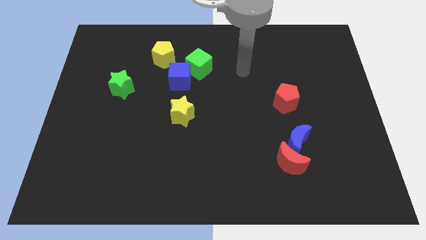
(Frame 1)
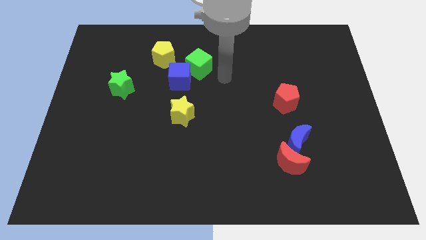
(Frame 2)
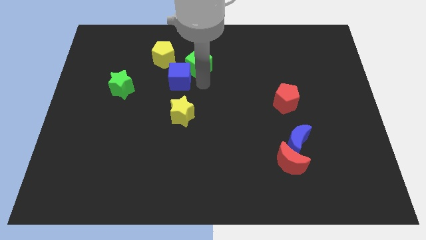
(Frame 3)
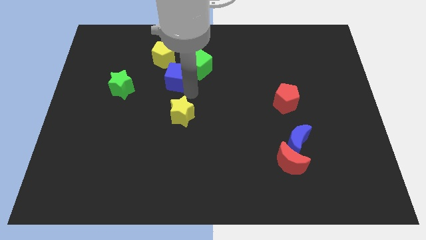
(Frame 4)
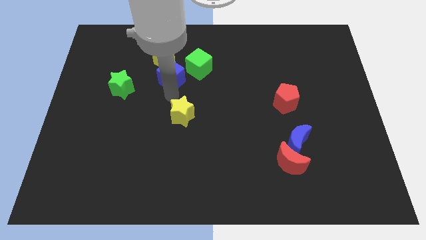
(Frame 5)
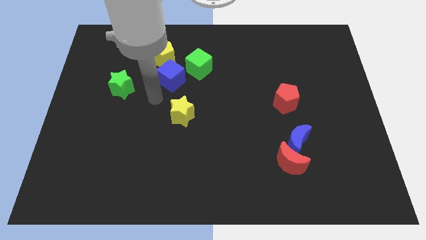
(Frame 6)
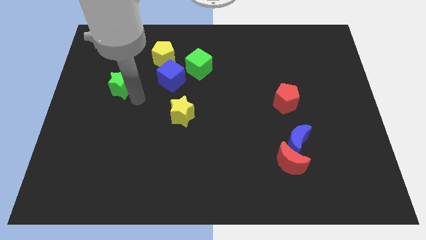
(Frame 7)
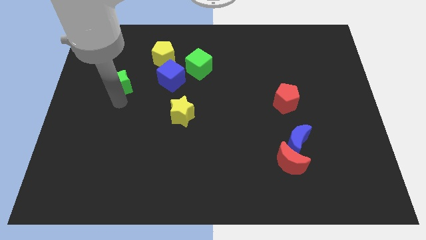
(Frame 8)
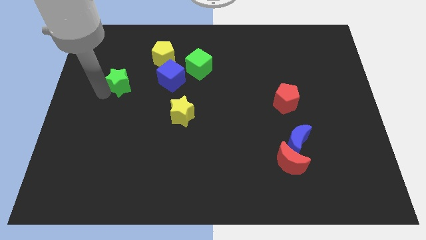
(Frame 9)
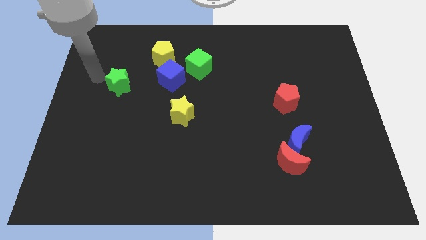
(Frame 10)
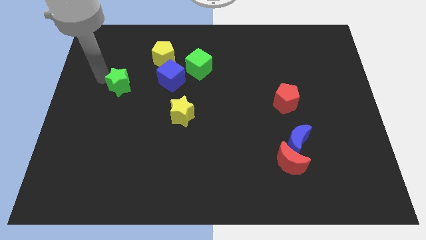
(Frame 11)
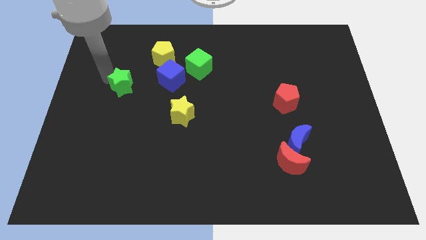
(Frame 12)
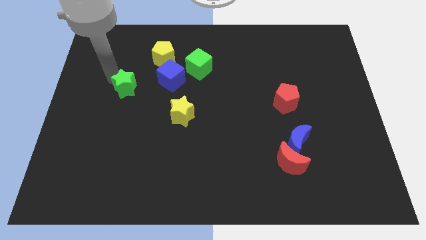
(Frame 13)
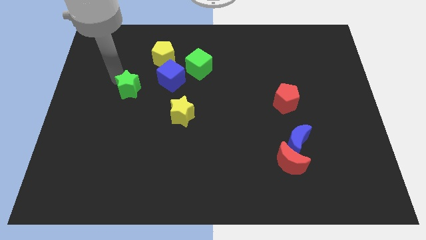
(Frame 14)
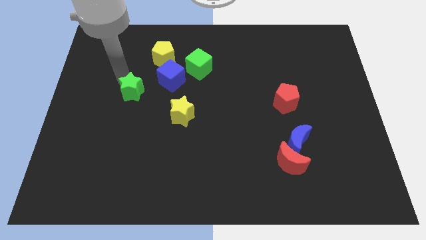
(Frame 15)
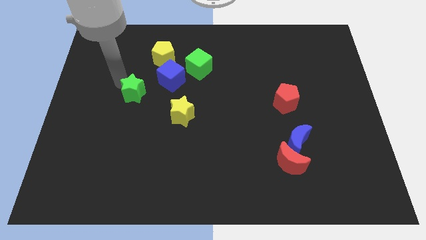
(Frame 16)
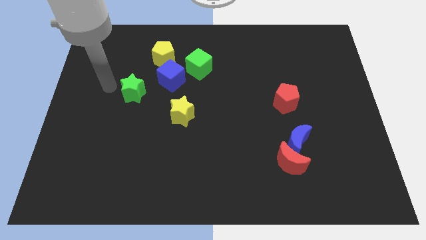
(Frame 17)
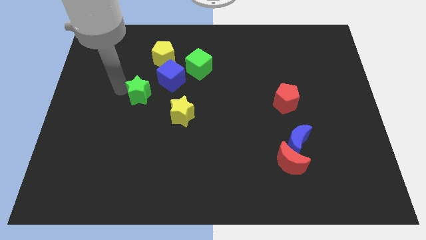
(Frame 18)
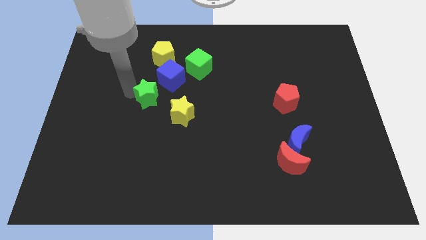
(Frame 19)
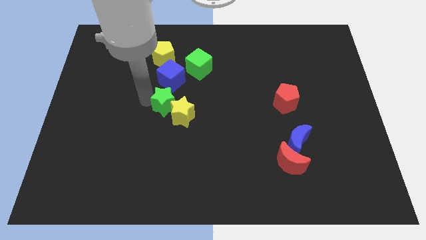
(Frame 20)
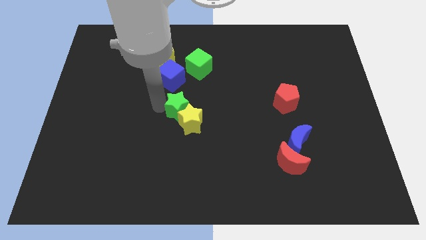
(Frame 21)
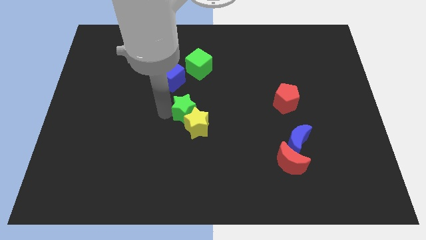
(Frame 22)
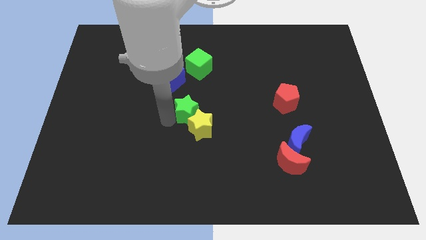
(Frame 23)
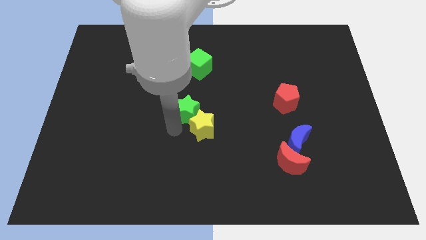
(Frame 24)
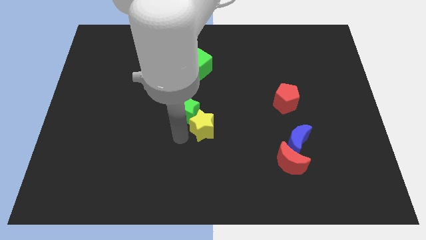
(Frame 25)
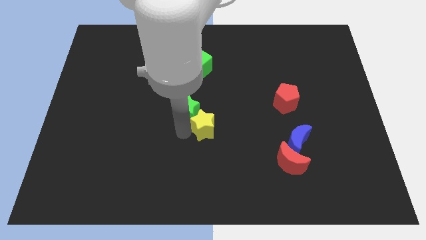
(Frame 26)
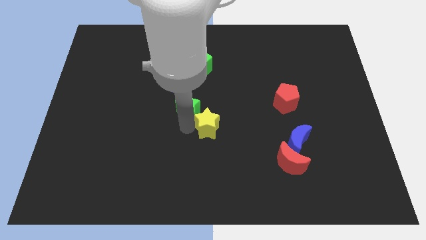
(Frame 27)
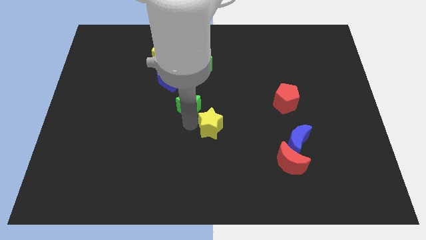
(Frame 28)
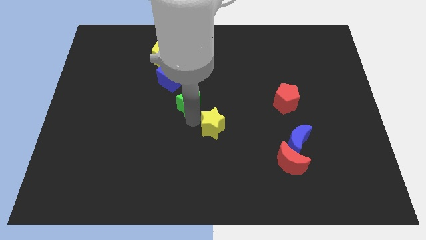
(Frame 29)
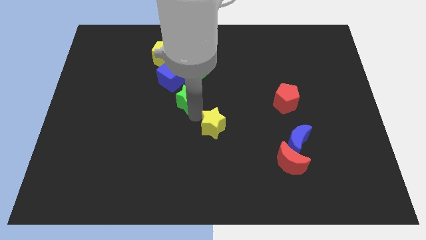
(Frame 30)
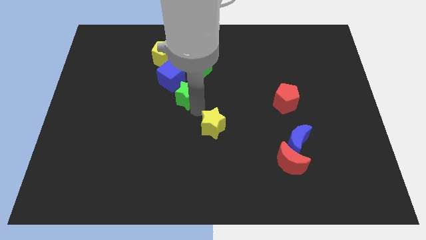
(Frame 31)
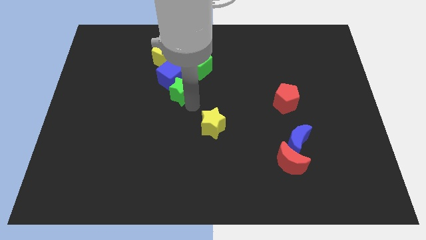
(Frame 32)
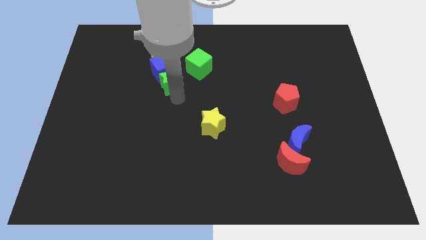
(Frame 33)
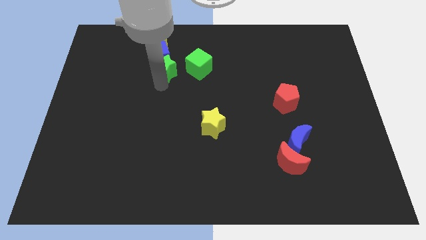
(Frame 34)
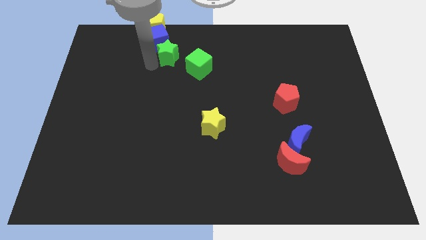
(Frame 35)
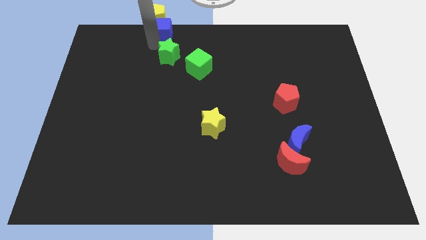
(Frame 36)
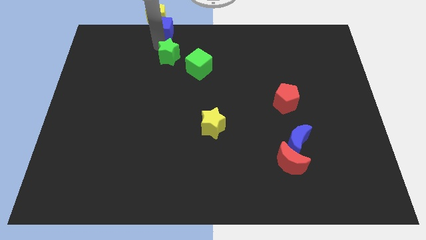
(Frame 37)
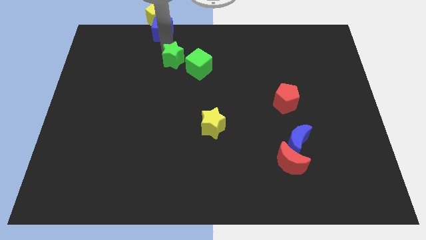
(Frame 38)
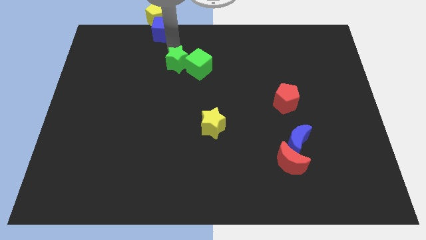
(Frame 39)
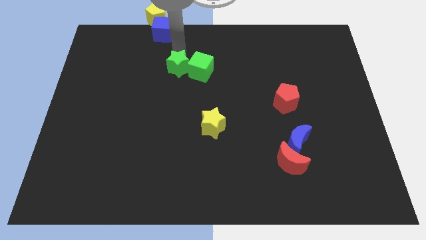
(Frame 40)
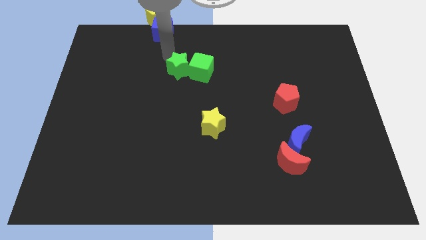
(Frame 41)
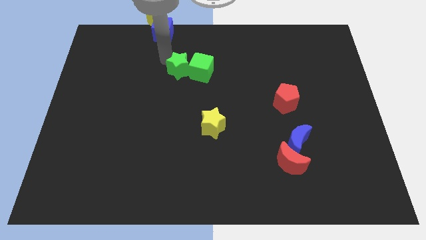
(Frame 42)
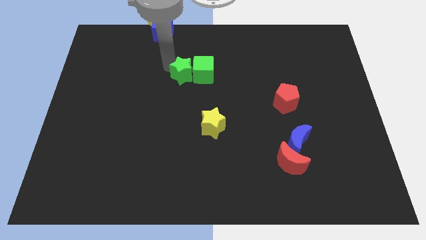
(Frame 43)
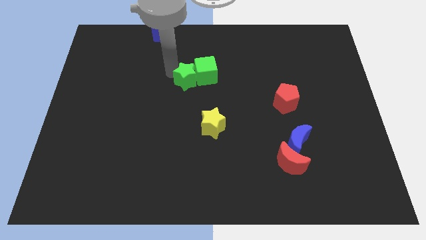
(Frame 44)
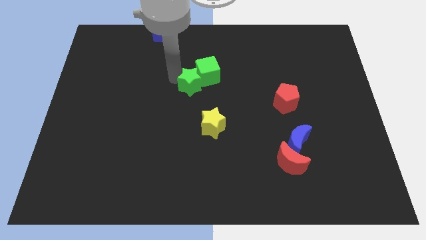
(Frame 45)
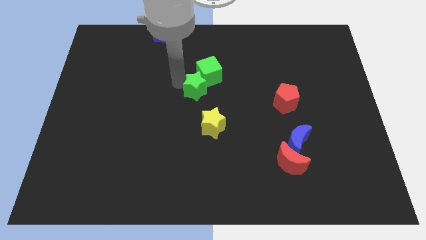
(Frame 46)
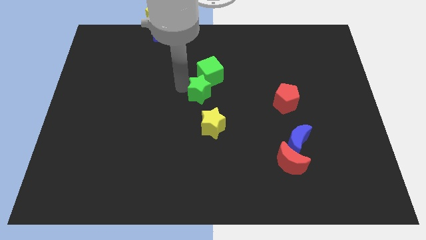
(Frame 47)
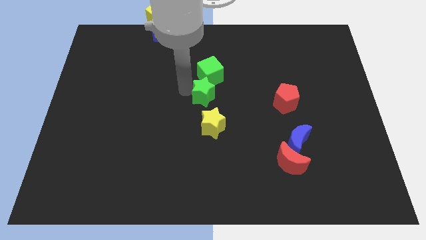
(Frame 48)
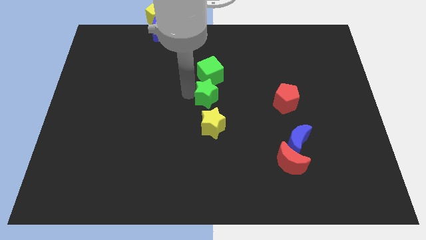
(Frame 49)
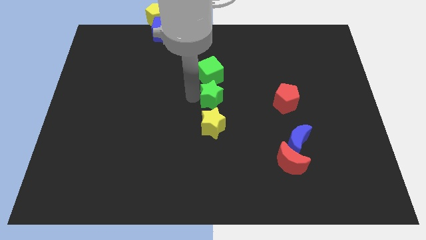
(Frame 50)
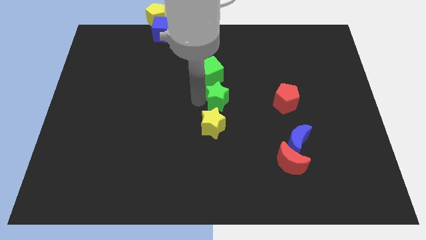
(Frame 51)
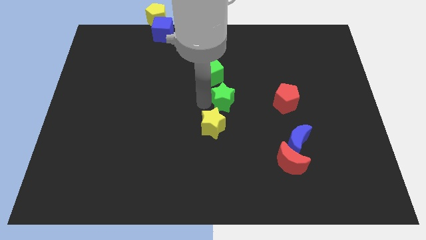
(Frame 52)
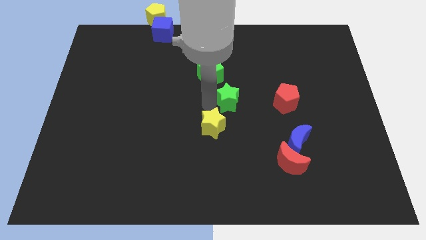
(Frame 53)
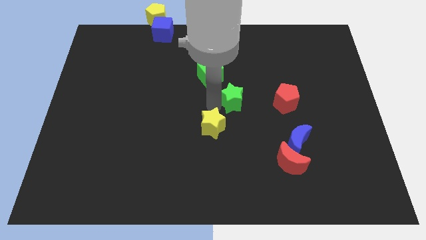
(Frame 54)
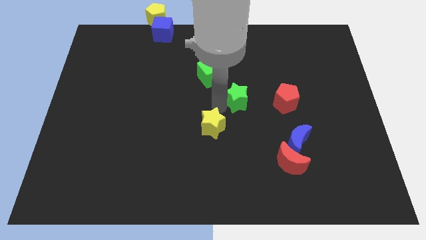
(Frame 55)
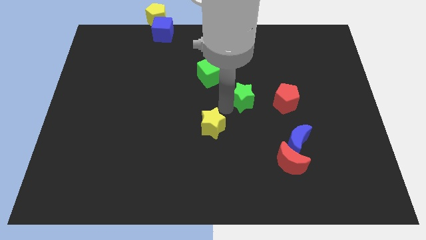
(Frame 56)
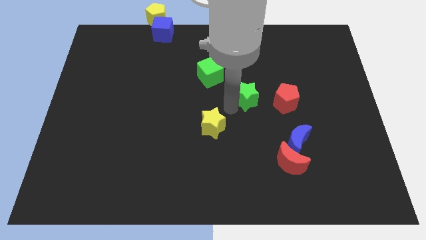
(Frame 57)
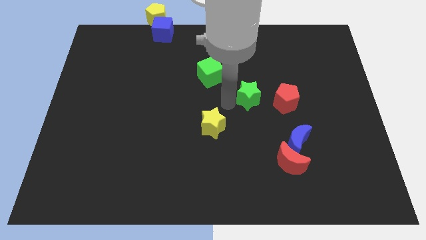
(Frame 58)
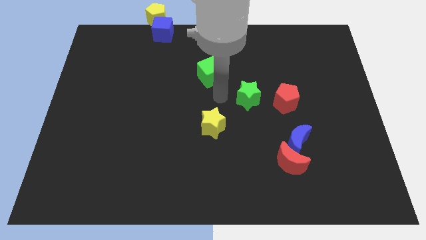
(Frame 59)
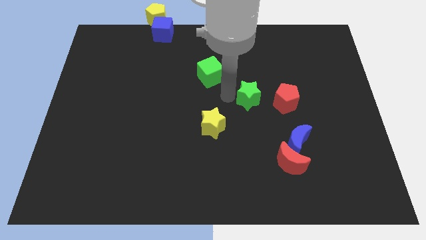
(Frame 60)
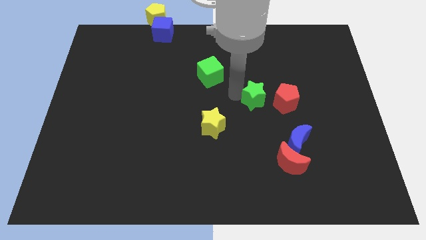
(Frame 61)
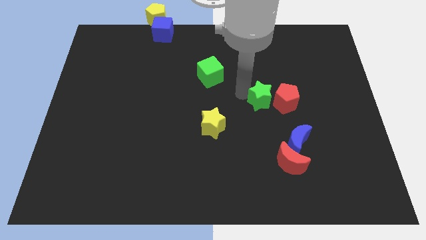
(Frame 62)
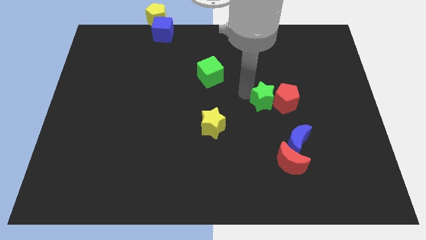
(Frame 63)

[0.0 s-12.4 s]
move the green star close to the red pentagon

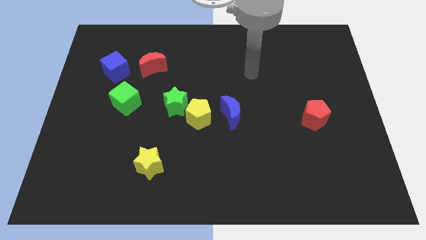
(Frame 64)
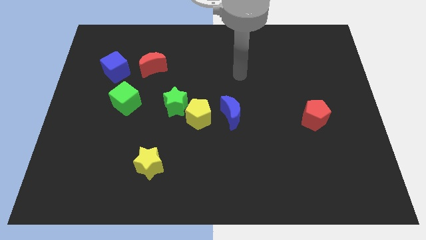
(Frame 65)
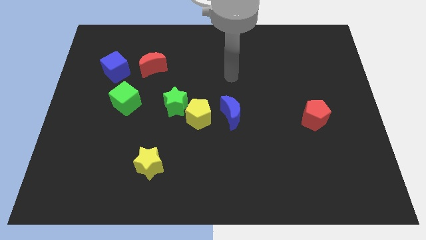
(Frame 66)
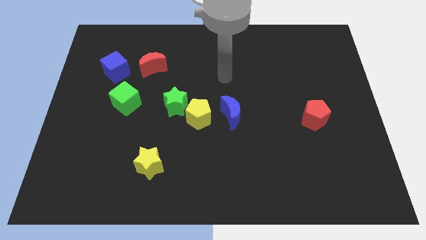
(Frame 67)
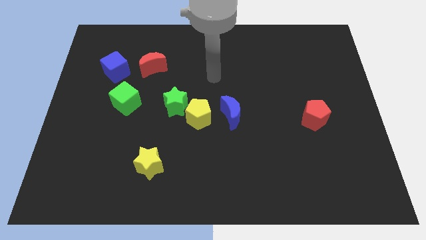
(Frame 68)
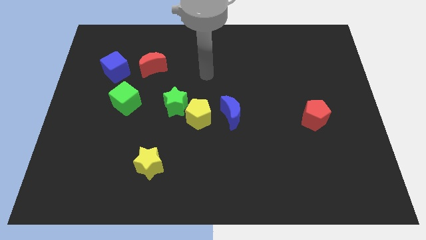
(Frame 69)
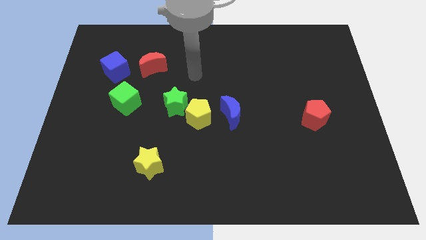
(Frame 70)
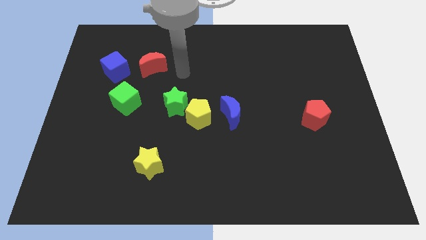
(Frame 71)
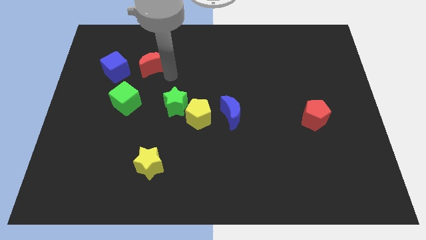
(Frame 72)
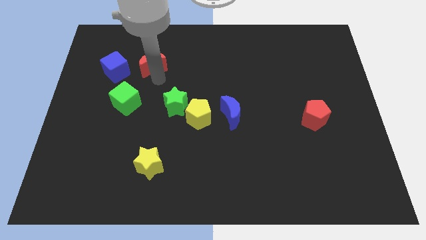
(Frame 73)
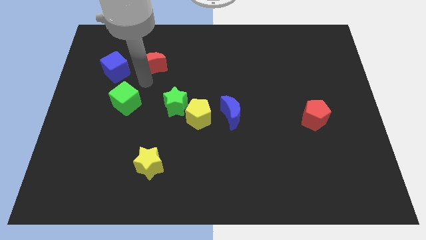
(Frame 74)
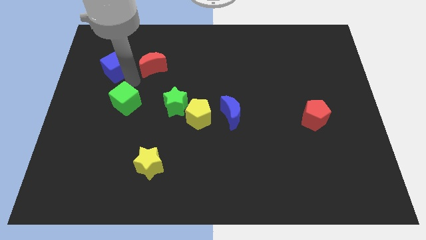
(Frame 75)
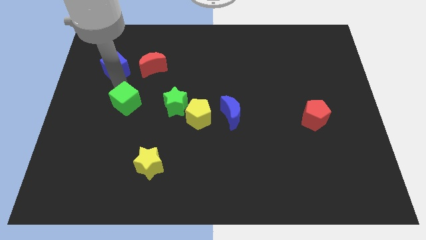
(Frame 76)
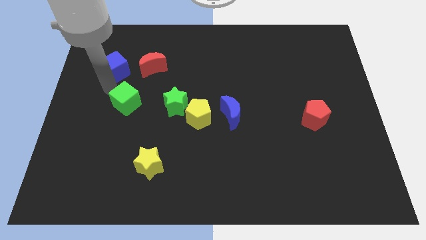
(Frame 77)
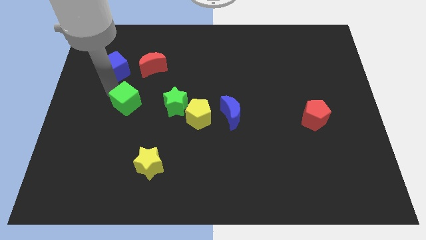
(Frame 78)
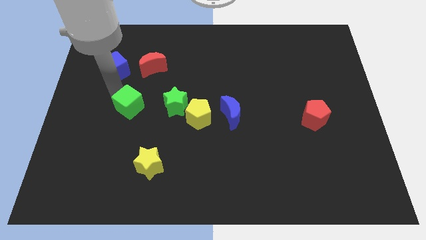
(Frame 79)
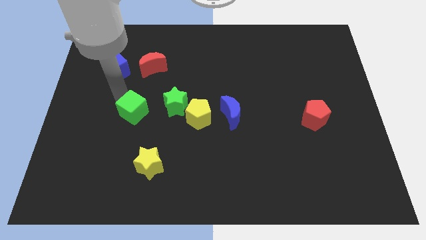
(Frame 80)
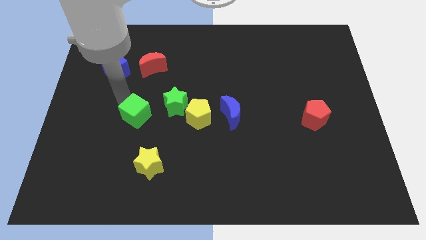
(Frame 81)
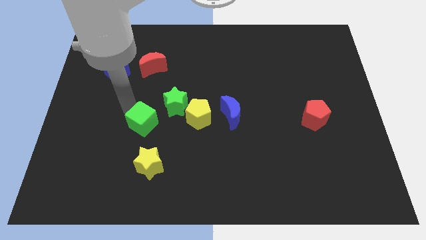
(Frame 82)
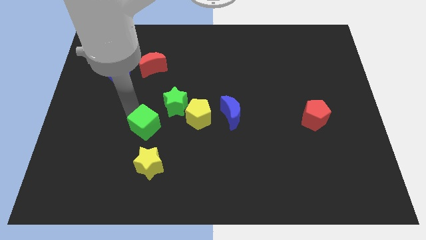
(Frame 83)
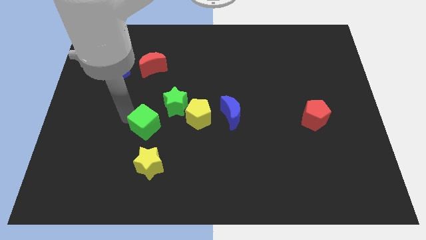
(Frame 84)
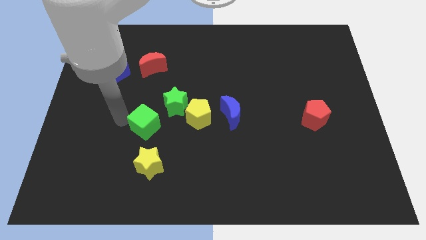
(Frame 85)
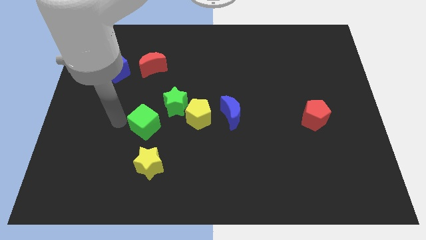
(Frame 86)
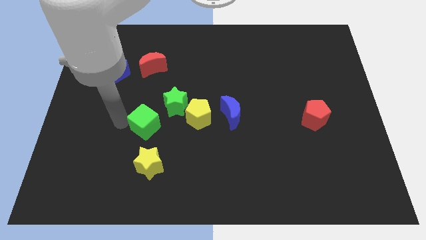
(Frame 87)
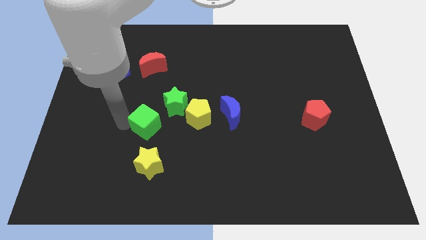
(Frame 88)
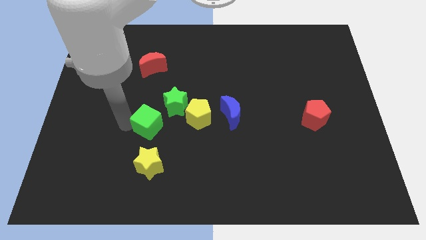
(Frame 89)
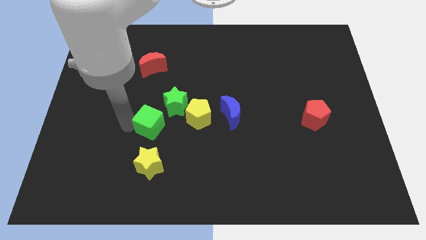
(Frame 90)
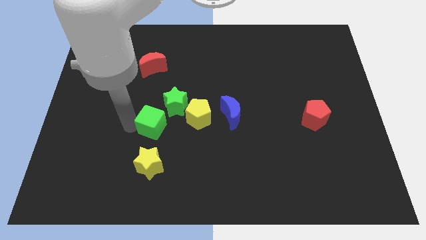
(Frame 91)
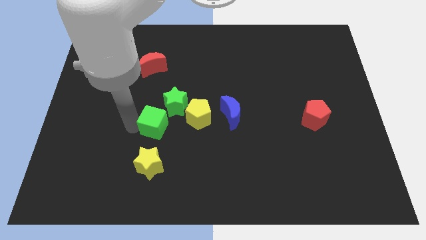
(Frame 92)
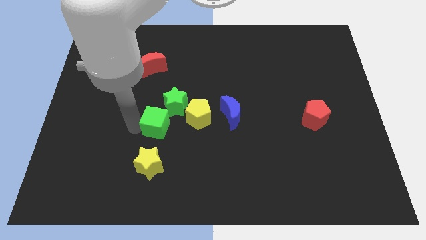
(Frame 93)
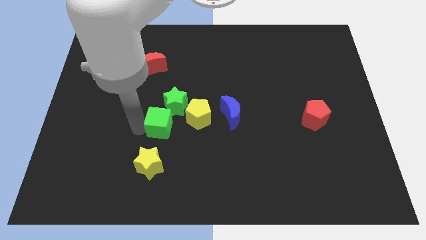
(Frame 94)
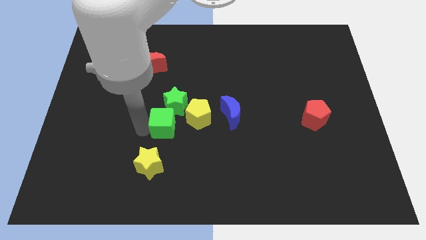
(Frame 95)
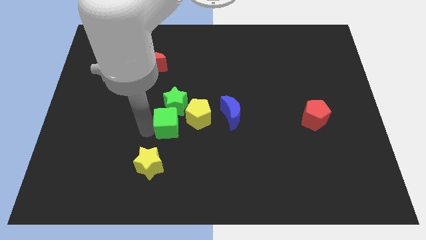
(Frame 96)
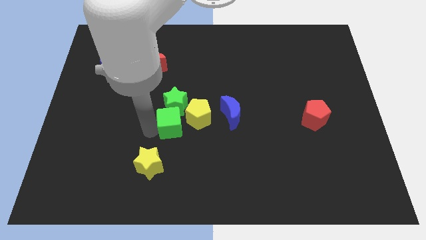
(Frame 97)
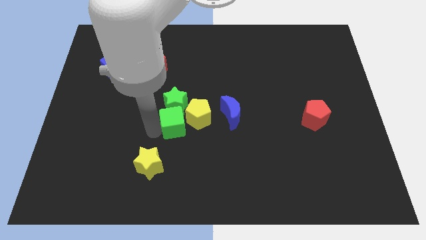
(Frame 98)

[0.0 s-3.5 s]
push the green cube close to the yellow pentagon
